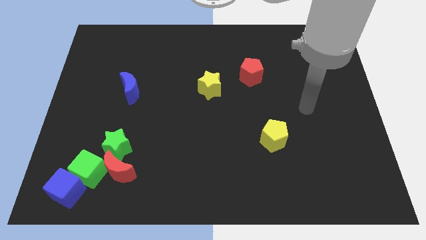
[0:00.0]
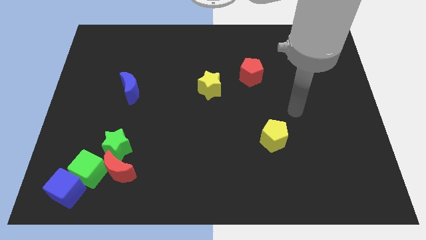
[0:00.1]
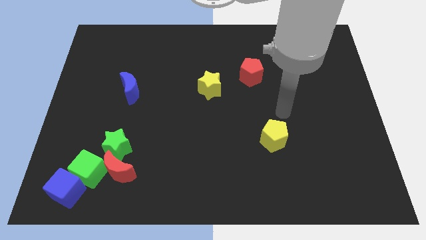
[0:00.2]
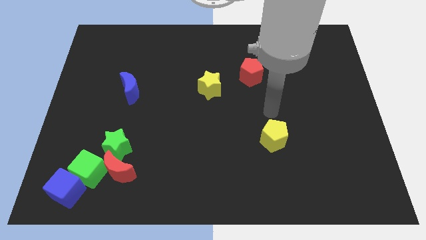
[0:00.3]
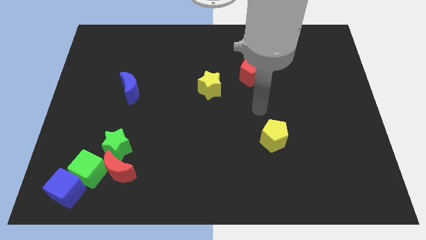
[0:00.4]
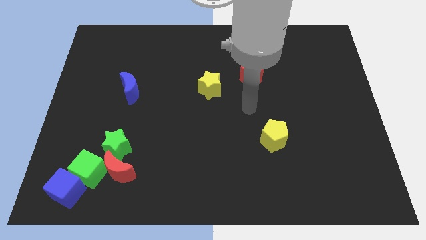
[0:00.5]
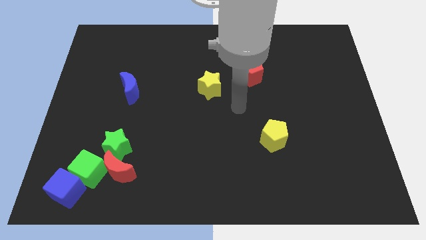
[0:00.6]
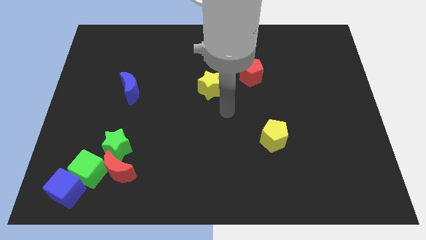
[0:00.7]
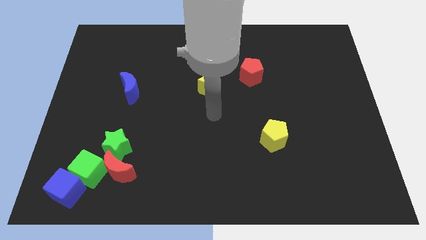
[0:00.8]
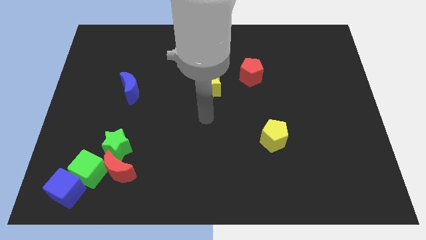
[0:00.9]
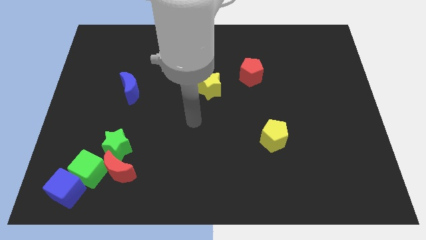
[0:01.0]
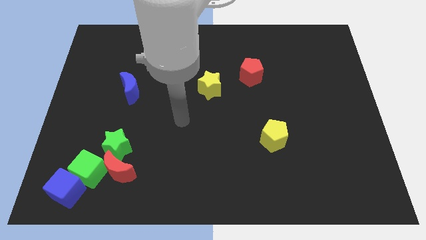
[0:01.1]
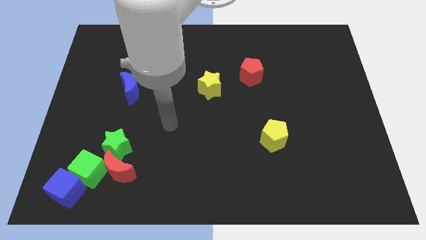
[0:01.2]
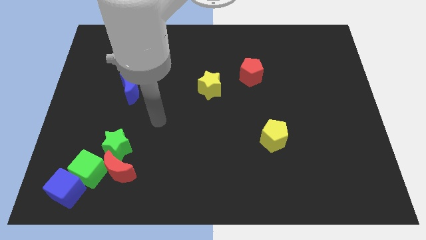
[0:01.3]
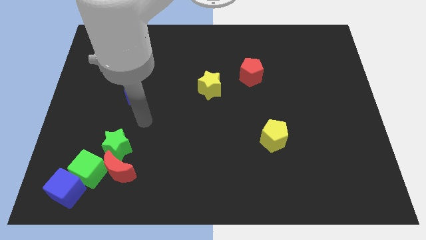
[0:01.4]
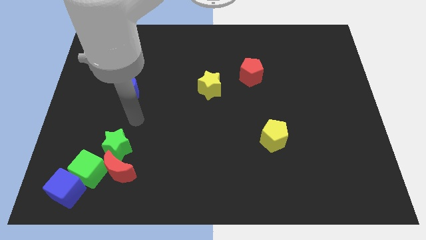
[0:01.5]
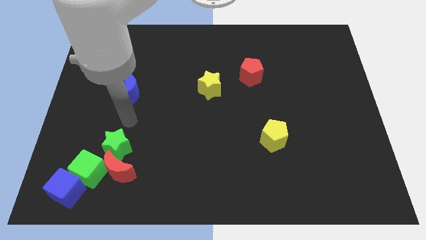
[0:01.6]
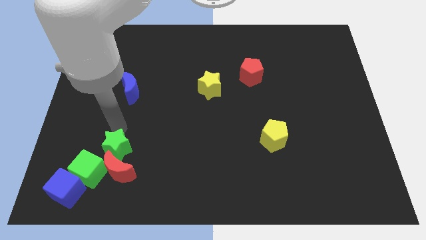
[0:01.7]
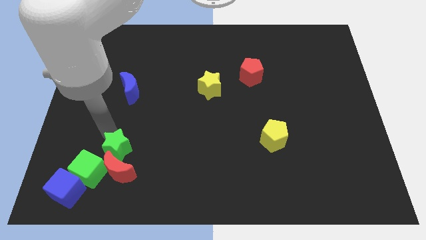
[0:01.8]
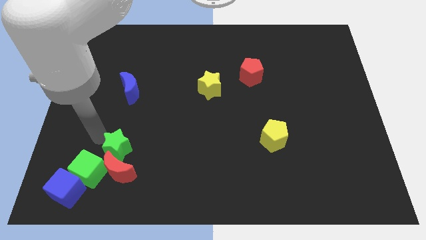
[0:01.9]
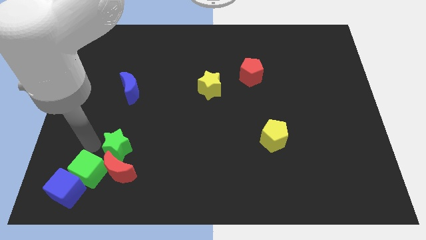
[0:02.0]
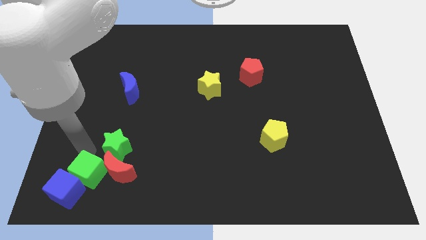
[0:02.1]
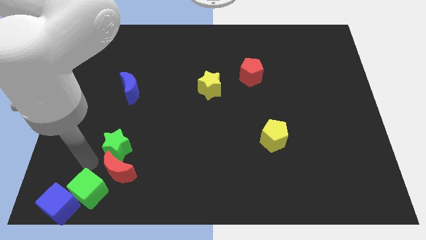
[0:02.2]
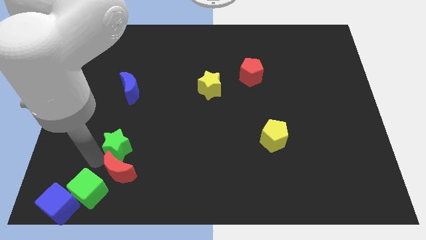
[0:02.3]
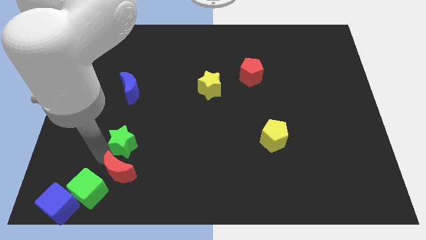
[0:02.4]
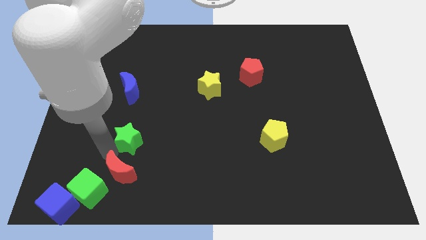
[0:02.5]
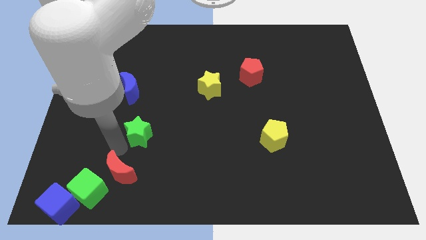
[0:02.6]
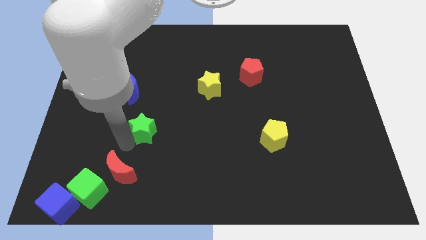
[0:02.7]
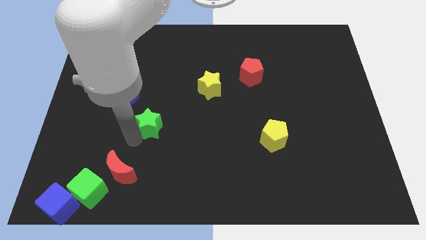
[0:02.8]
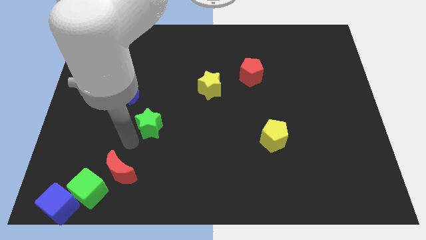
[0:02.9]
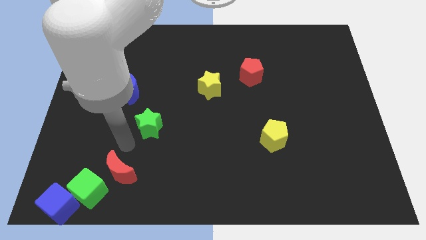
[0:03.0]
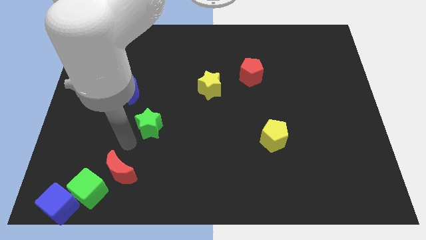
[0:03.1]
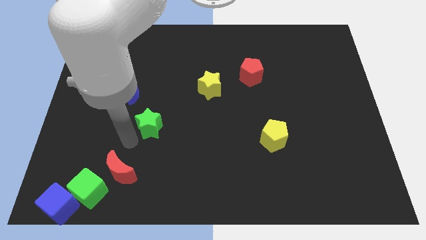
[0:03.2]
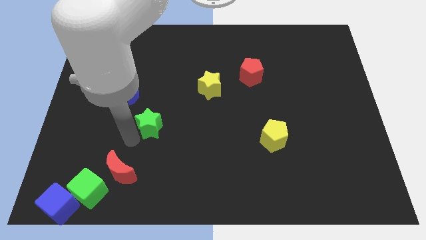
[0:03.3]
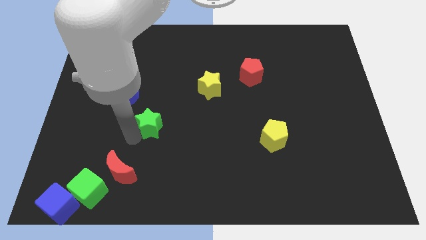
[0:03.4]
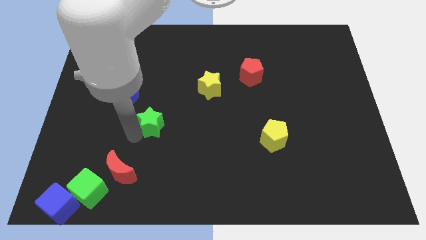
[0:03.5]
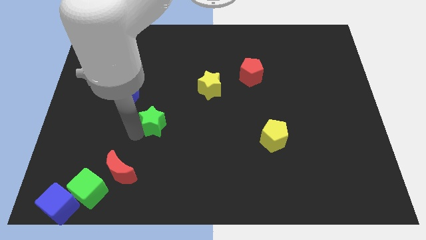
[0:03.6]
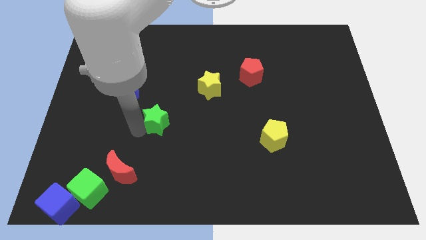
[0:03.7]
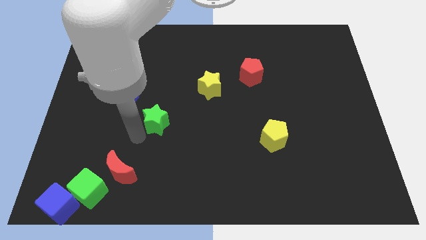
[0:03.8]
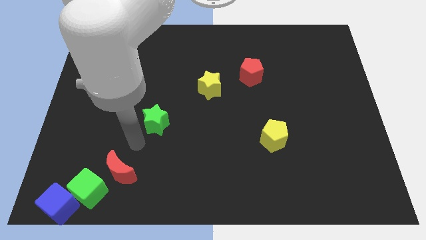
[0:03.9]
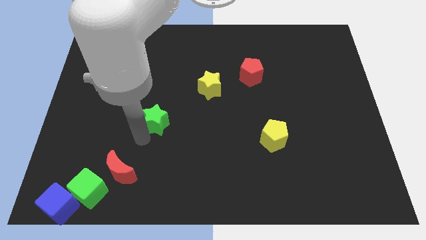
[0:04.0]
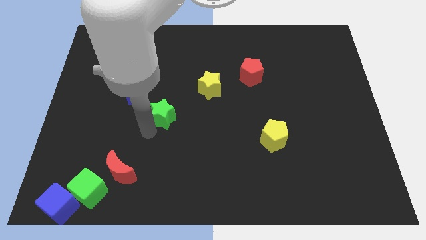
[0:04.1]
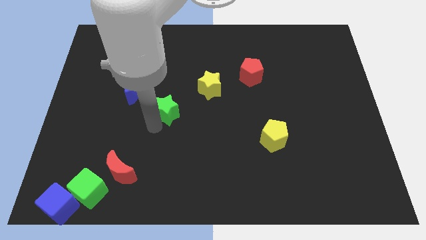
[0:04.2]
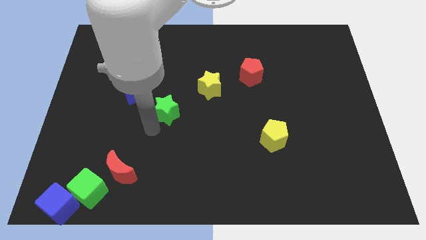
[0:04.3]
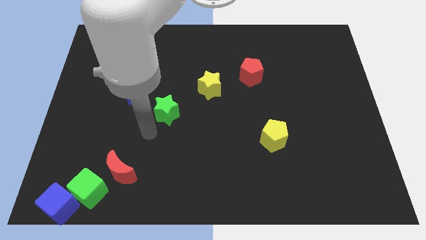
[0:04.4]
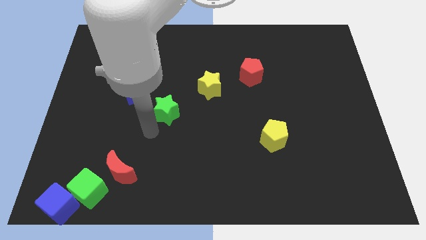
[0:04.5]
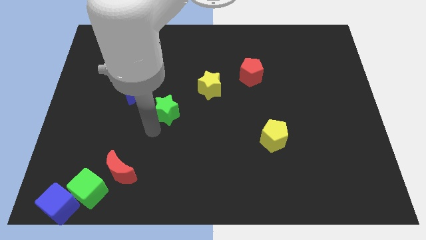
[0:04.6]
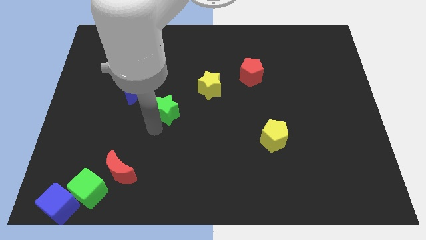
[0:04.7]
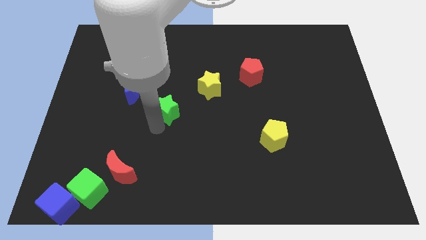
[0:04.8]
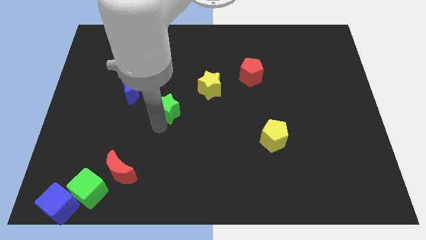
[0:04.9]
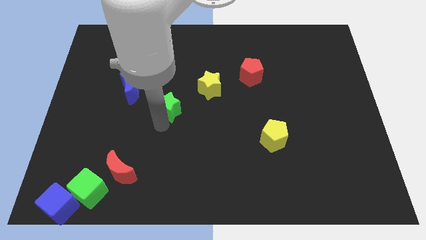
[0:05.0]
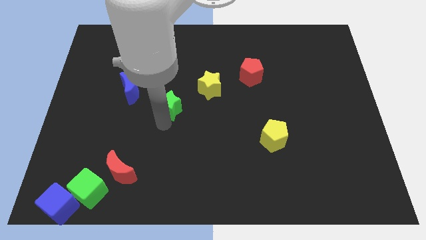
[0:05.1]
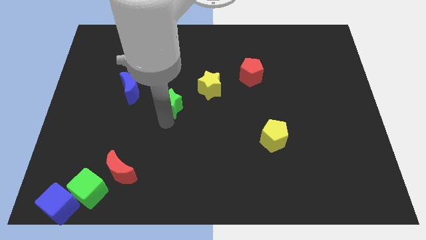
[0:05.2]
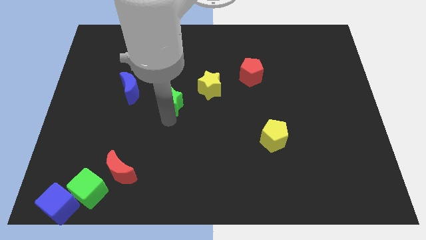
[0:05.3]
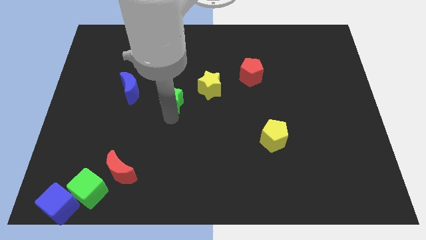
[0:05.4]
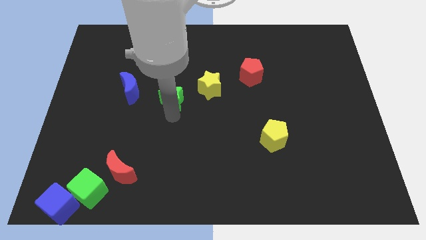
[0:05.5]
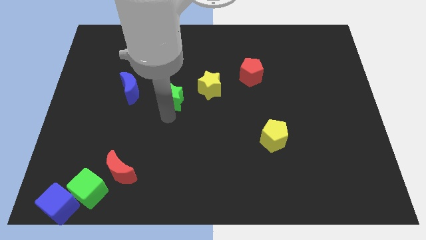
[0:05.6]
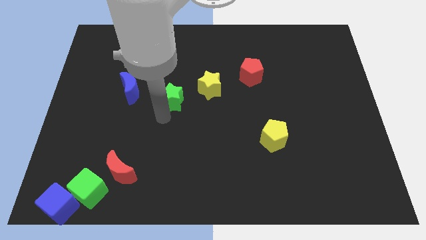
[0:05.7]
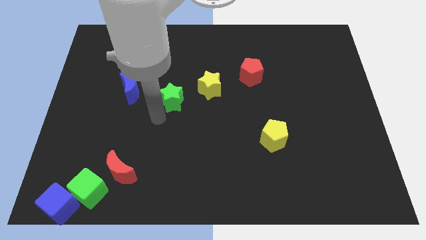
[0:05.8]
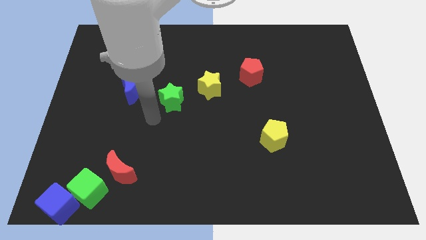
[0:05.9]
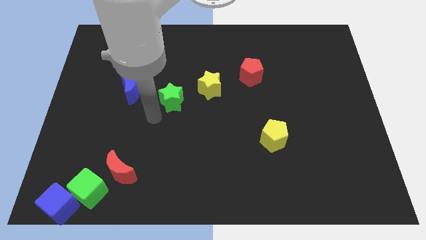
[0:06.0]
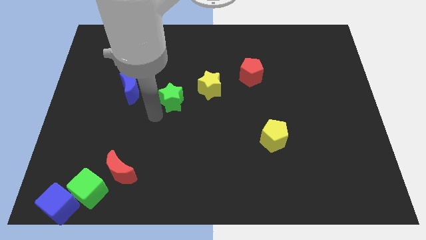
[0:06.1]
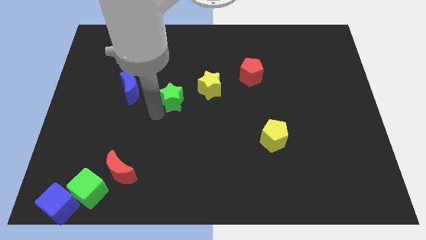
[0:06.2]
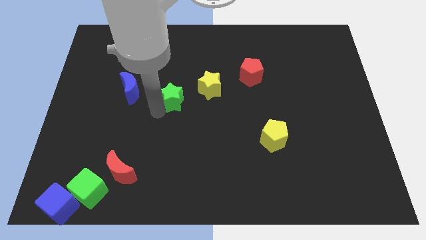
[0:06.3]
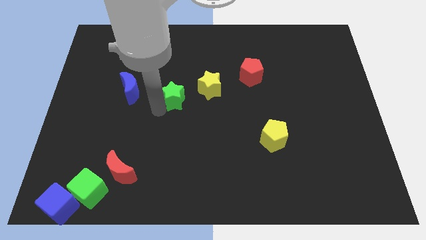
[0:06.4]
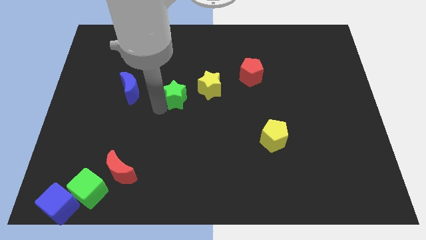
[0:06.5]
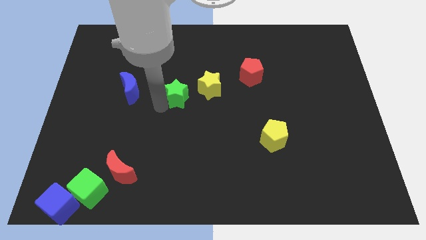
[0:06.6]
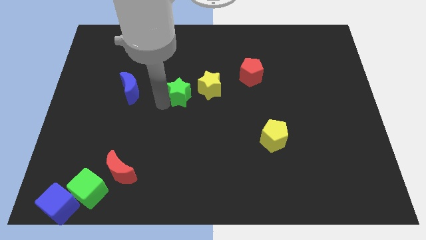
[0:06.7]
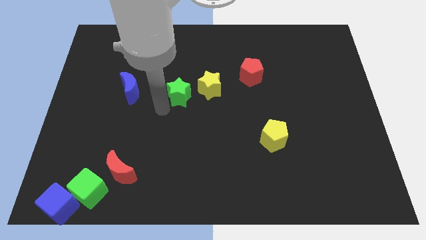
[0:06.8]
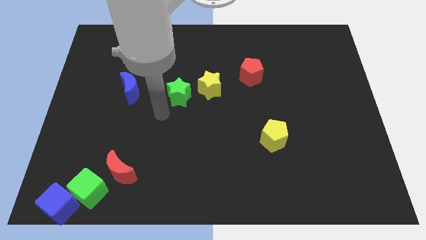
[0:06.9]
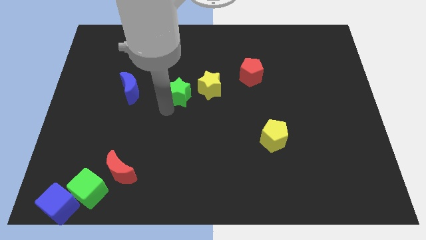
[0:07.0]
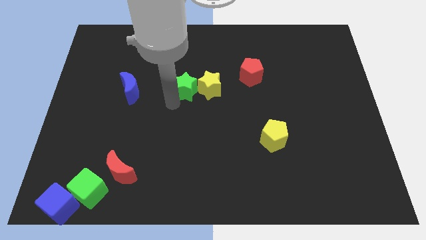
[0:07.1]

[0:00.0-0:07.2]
push the green star upwards and right

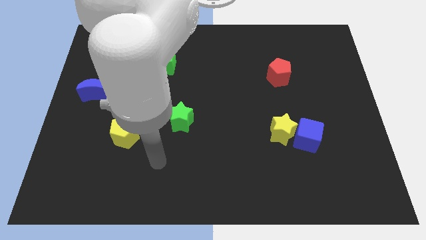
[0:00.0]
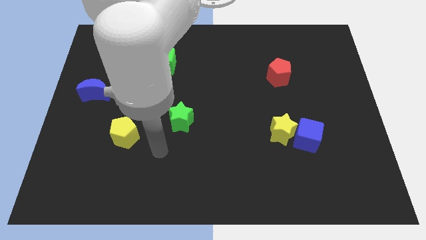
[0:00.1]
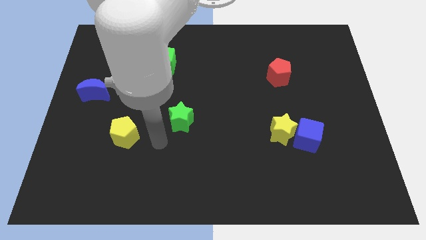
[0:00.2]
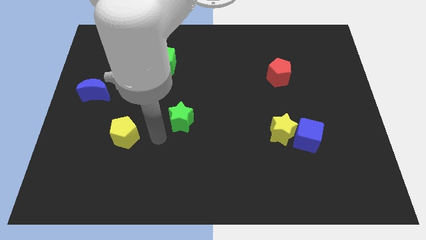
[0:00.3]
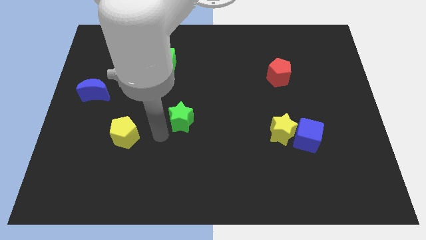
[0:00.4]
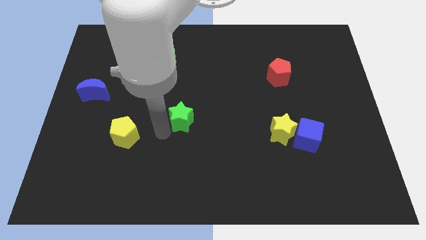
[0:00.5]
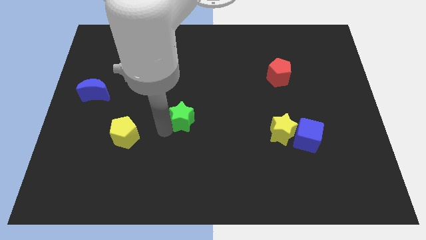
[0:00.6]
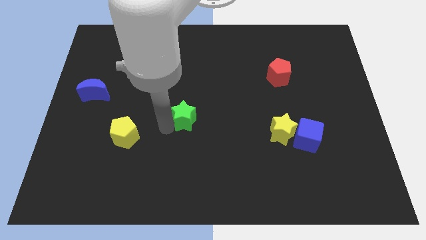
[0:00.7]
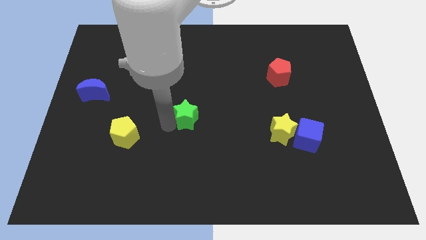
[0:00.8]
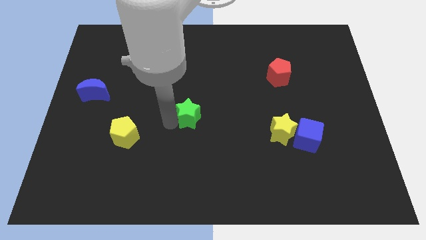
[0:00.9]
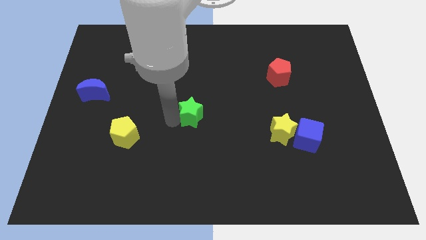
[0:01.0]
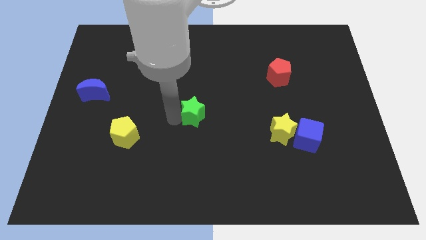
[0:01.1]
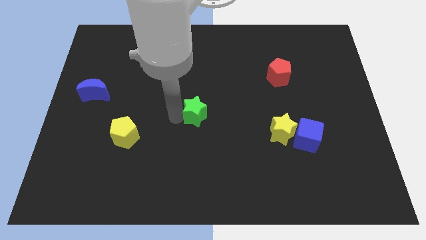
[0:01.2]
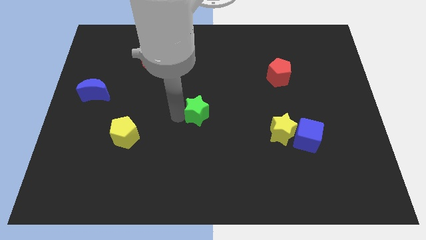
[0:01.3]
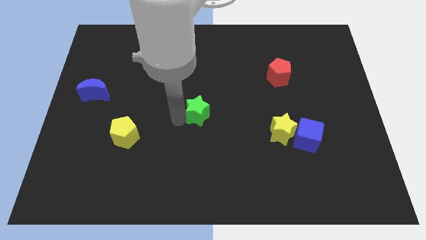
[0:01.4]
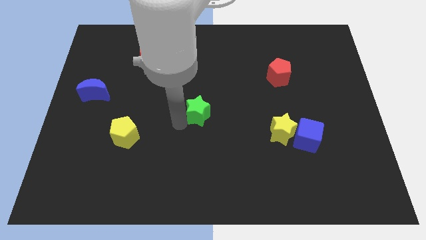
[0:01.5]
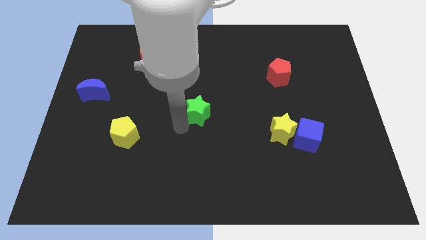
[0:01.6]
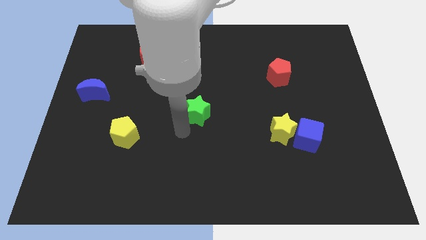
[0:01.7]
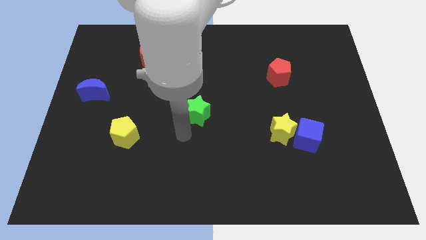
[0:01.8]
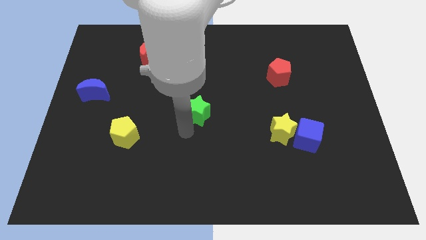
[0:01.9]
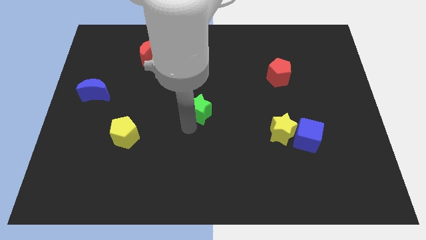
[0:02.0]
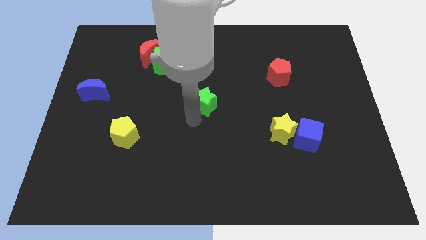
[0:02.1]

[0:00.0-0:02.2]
push the green star a little bit up and then to the right
